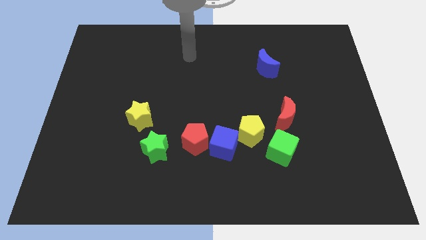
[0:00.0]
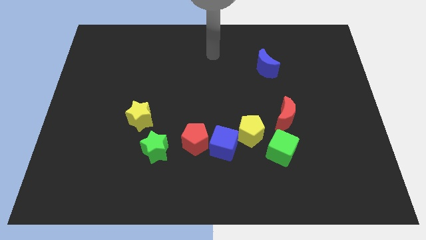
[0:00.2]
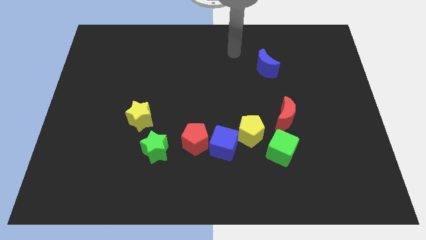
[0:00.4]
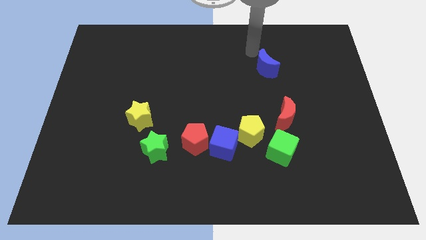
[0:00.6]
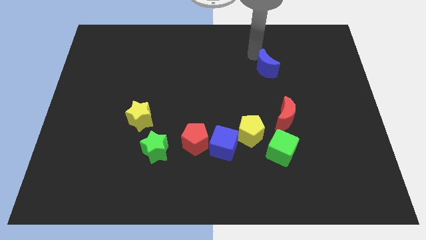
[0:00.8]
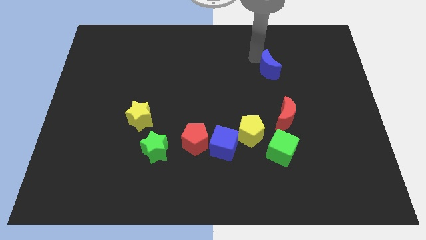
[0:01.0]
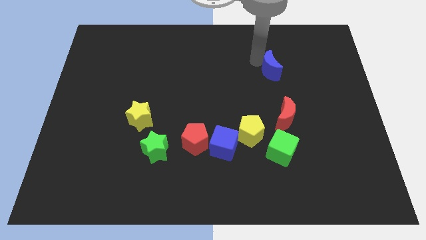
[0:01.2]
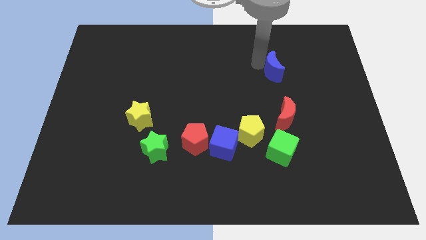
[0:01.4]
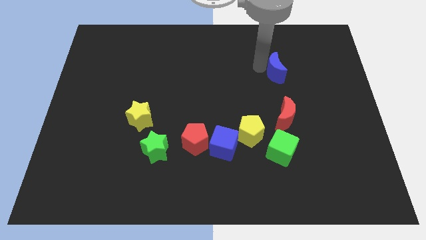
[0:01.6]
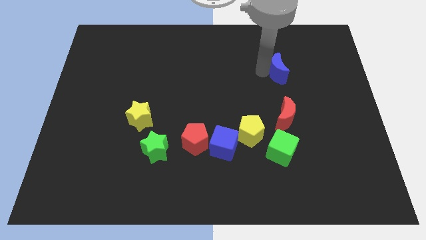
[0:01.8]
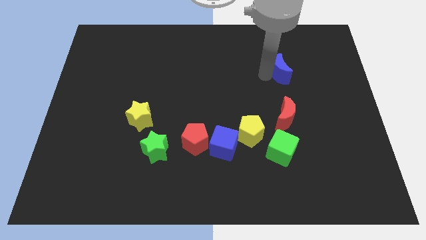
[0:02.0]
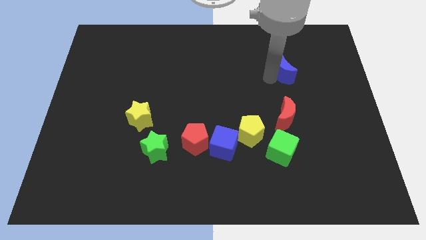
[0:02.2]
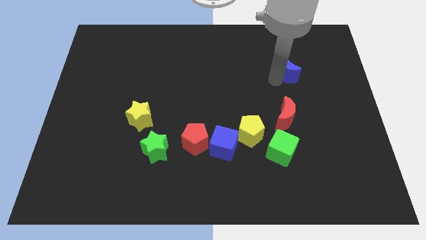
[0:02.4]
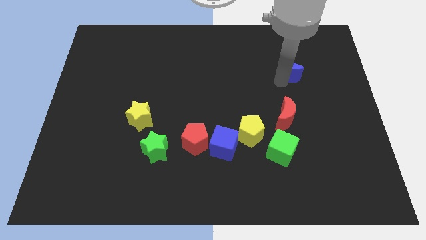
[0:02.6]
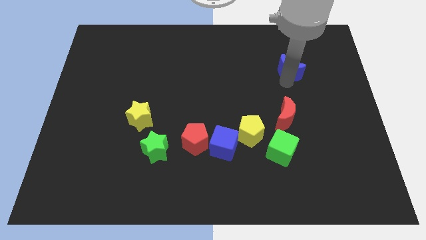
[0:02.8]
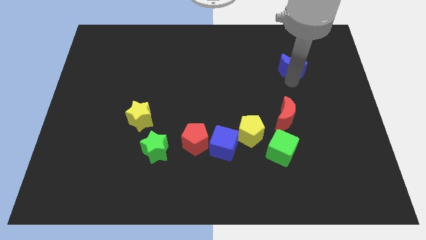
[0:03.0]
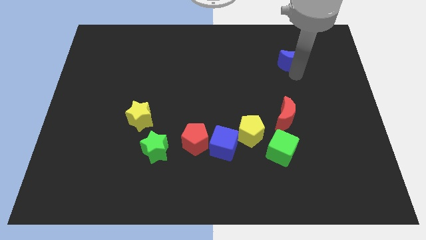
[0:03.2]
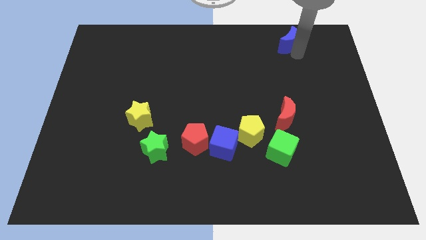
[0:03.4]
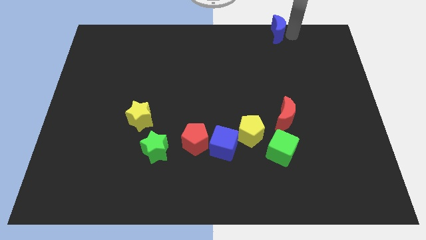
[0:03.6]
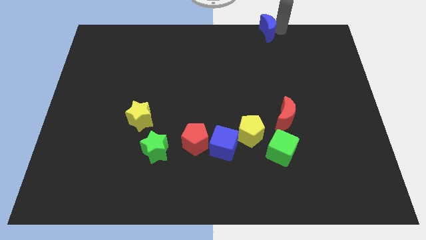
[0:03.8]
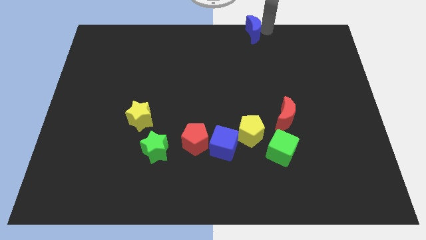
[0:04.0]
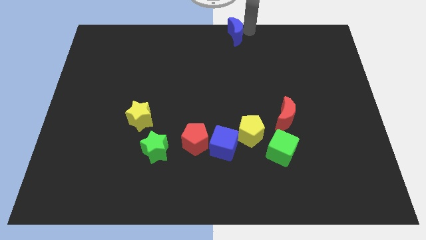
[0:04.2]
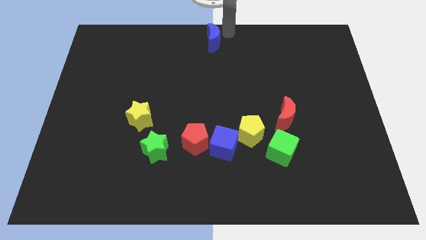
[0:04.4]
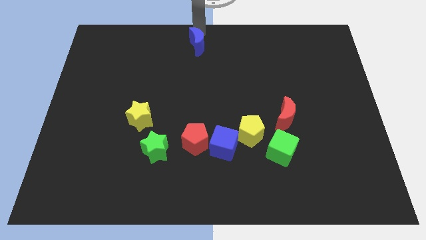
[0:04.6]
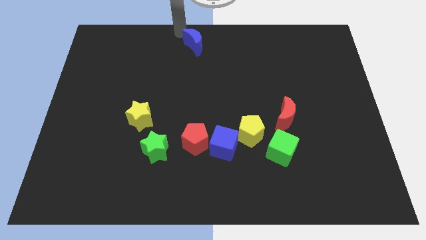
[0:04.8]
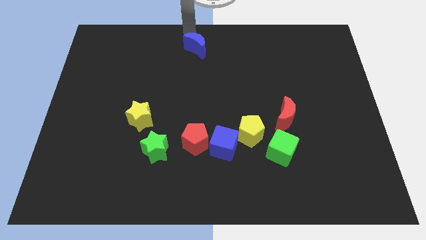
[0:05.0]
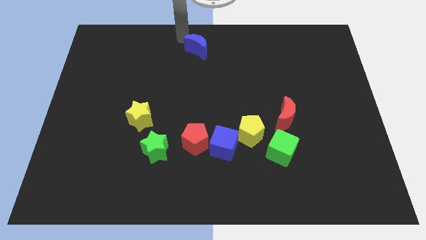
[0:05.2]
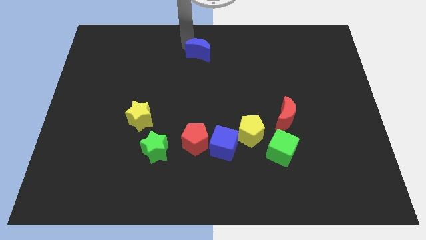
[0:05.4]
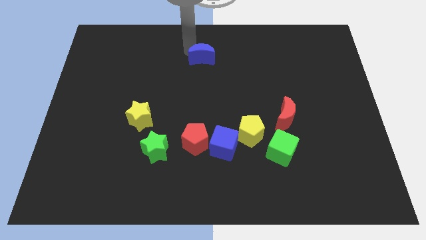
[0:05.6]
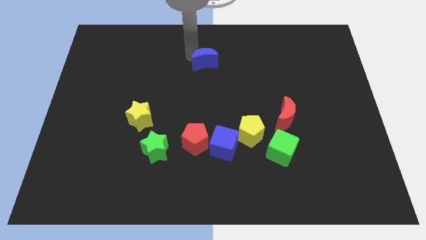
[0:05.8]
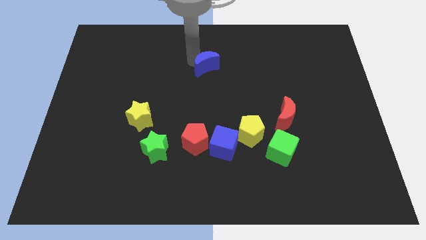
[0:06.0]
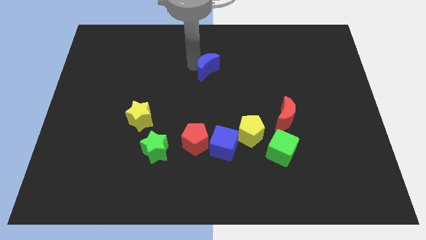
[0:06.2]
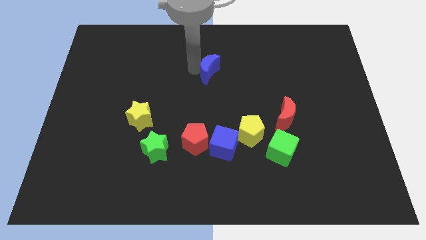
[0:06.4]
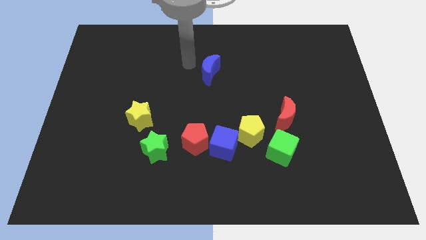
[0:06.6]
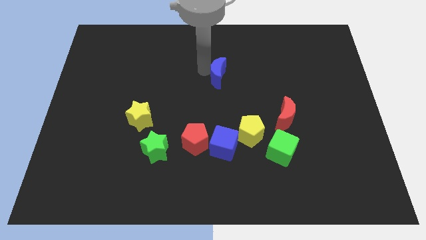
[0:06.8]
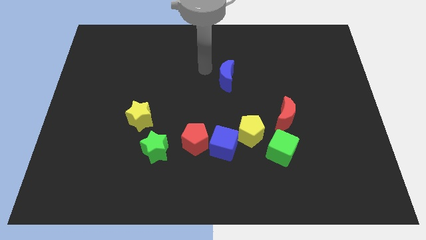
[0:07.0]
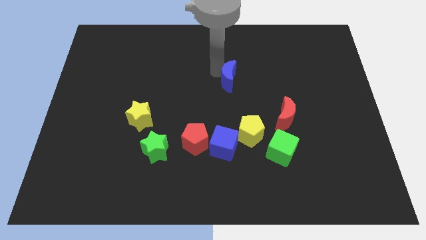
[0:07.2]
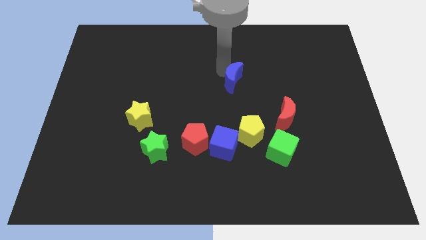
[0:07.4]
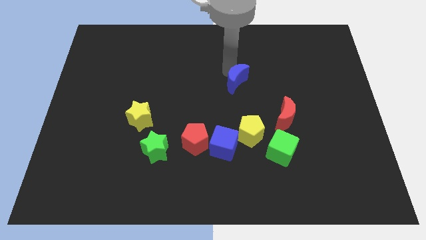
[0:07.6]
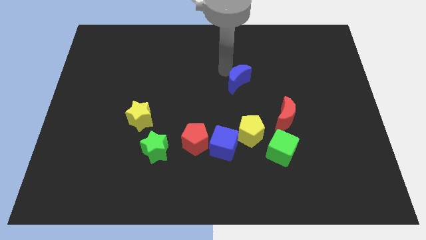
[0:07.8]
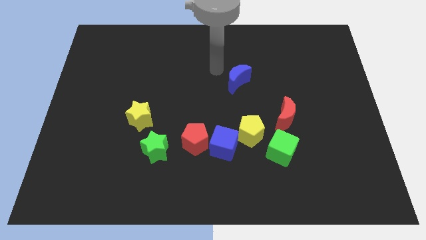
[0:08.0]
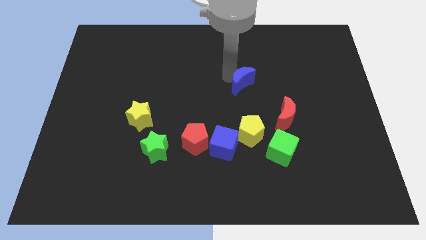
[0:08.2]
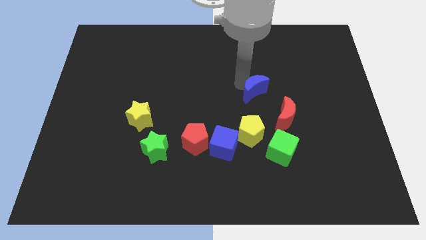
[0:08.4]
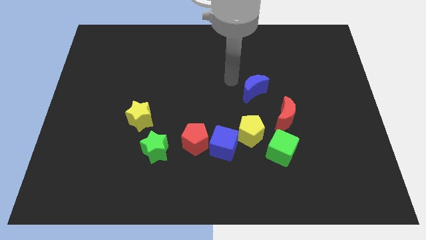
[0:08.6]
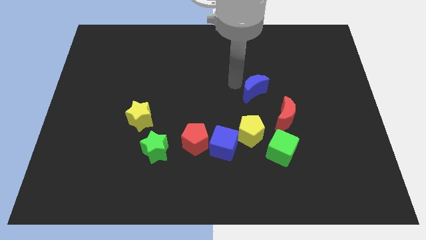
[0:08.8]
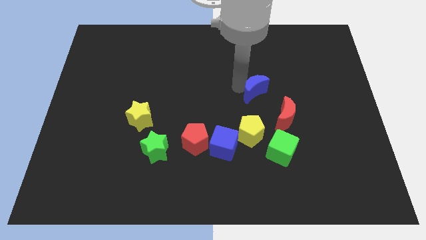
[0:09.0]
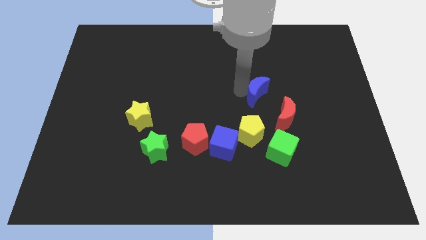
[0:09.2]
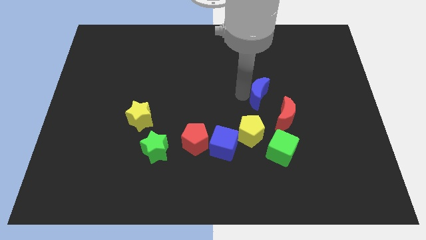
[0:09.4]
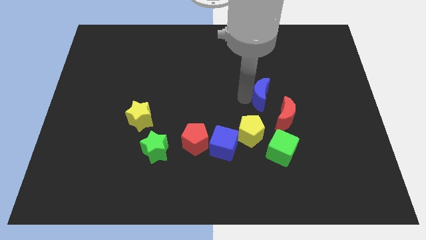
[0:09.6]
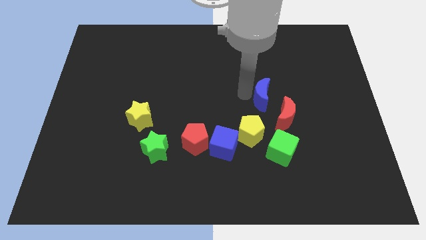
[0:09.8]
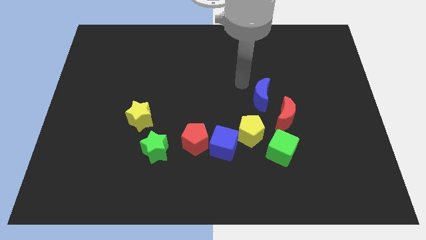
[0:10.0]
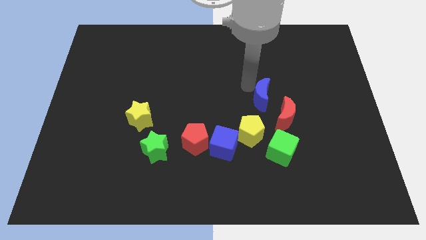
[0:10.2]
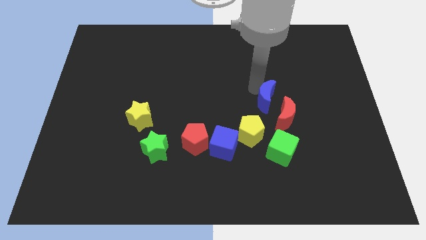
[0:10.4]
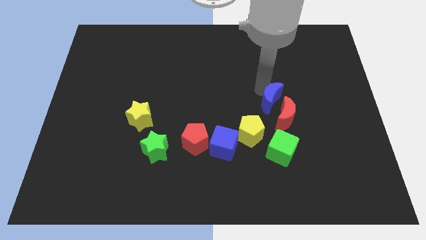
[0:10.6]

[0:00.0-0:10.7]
put the blue moon towards the red moon

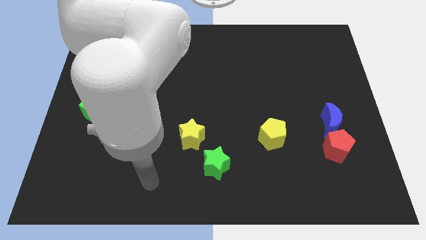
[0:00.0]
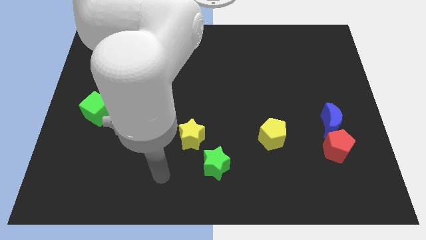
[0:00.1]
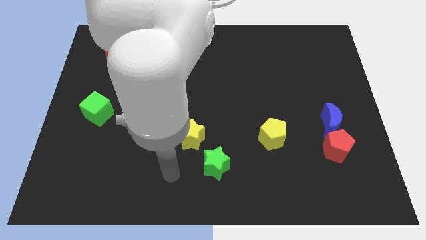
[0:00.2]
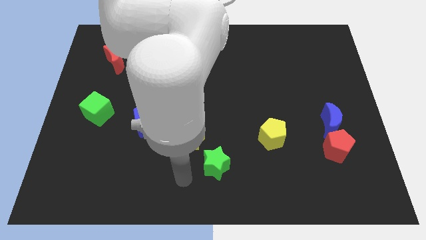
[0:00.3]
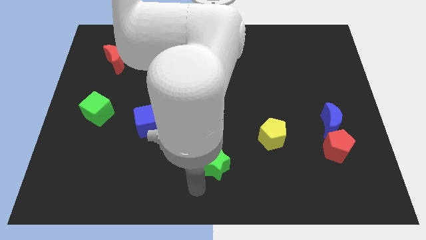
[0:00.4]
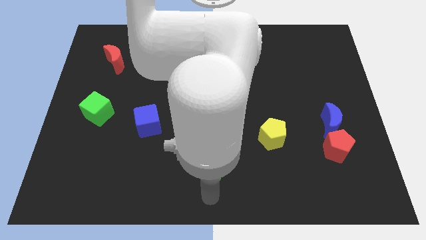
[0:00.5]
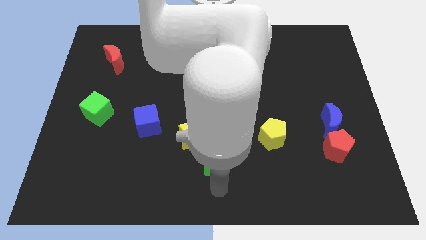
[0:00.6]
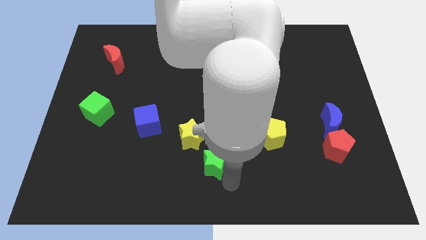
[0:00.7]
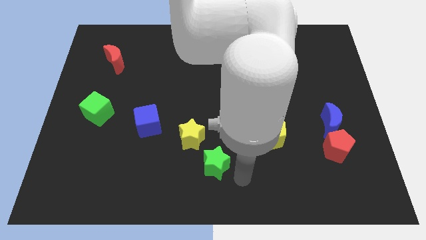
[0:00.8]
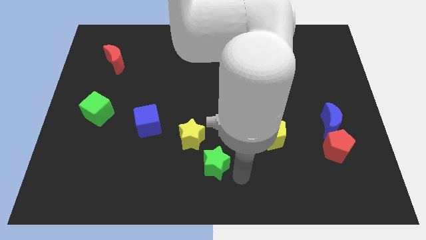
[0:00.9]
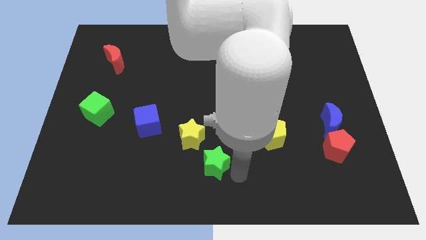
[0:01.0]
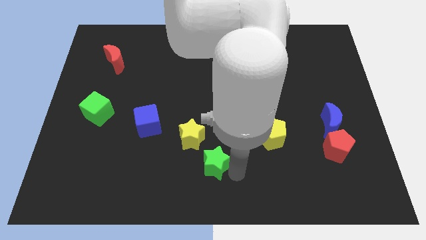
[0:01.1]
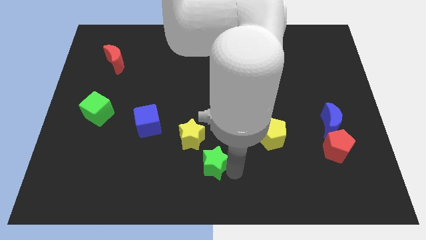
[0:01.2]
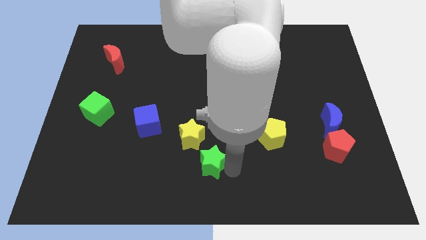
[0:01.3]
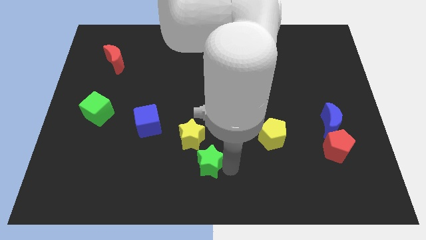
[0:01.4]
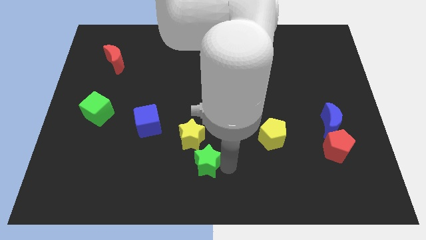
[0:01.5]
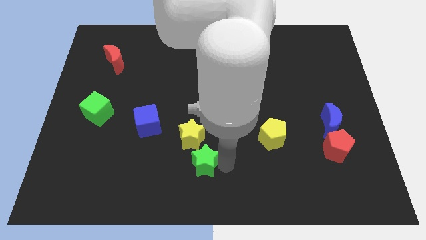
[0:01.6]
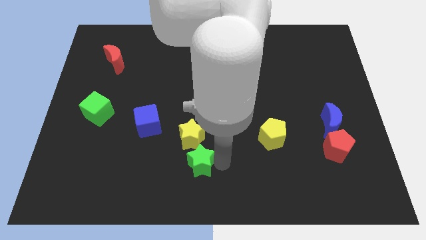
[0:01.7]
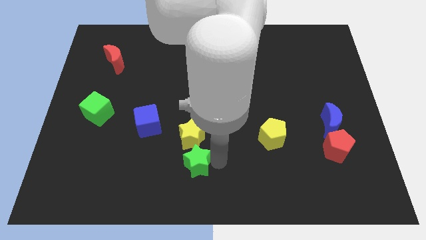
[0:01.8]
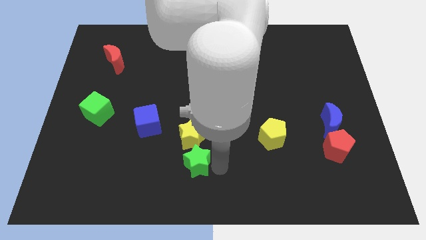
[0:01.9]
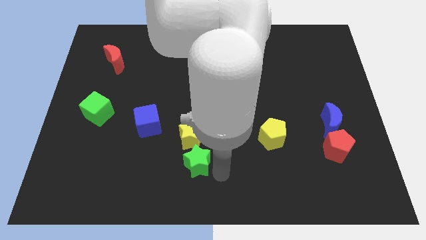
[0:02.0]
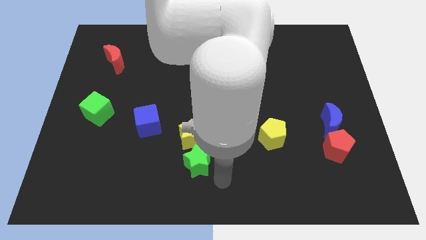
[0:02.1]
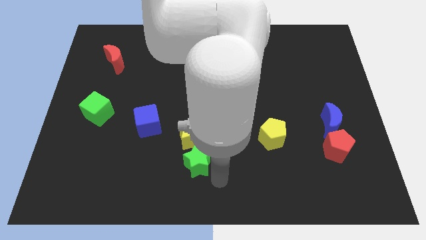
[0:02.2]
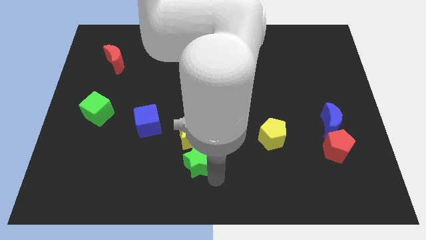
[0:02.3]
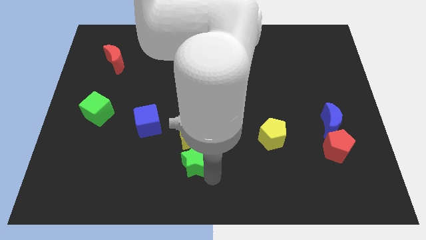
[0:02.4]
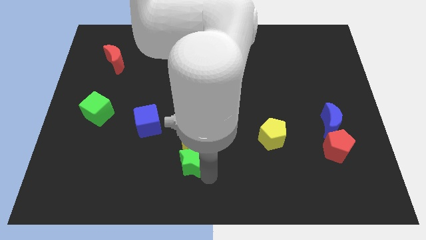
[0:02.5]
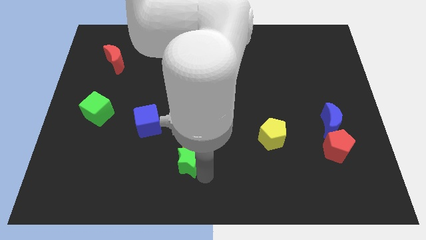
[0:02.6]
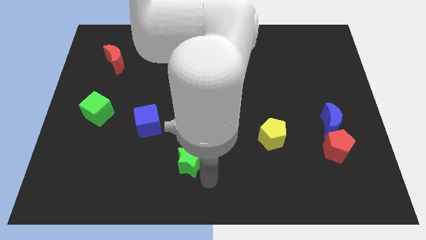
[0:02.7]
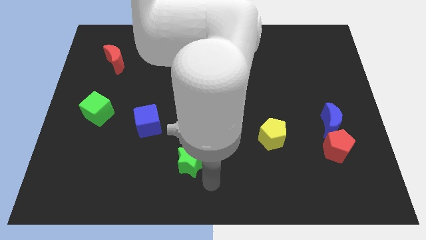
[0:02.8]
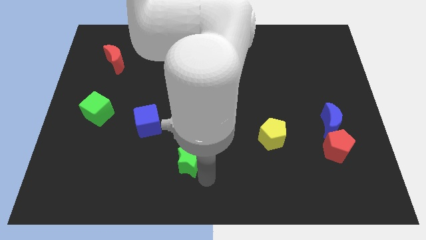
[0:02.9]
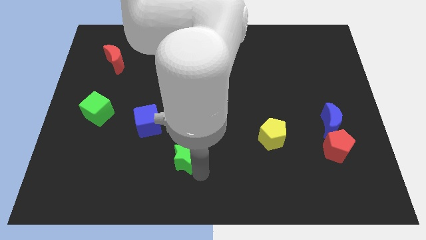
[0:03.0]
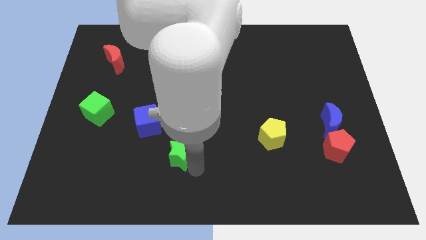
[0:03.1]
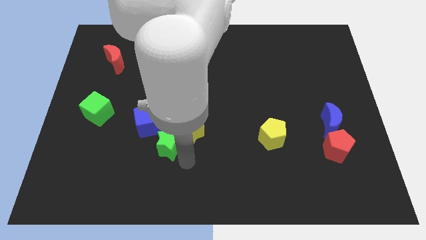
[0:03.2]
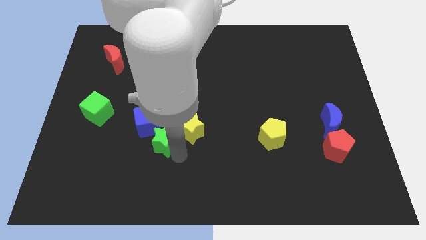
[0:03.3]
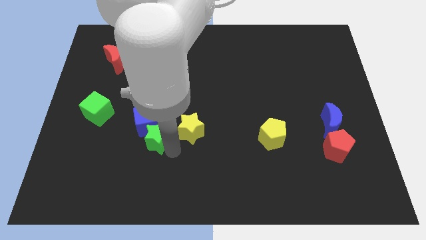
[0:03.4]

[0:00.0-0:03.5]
put the green star close to the blue cube
